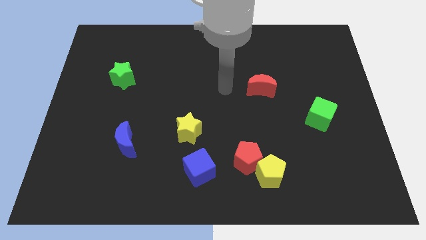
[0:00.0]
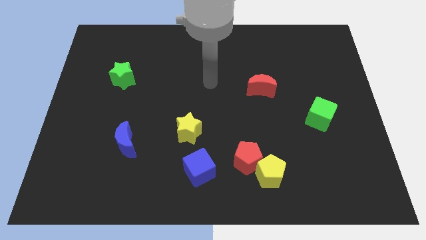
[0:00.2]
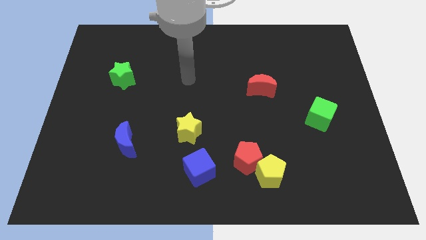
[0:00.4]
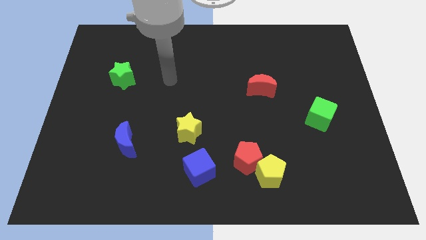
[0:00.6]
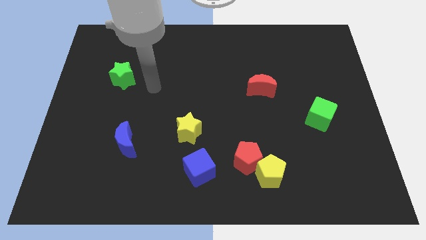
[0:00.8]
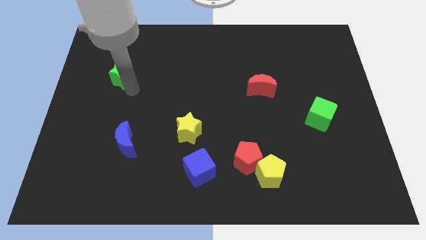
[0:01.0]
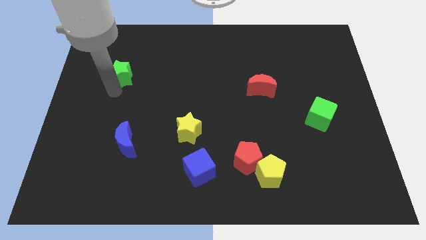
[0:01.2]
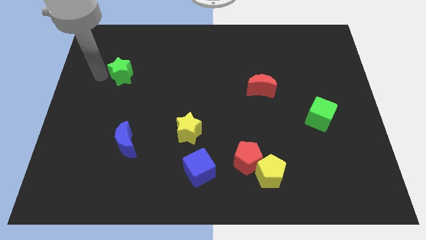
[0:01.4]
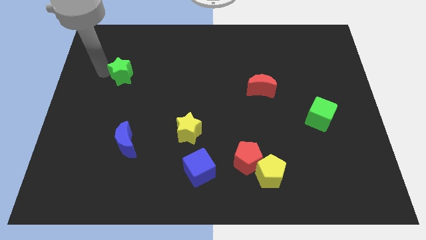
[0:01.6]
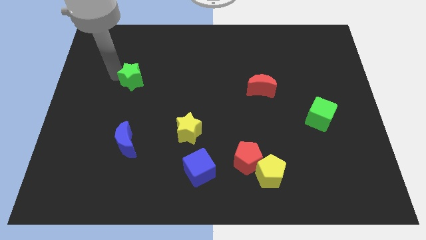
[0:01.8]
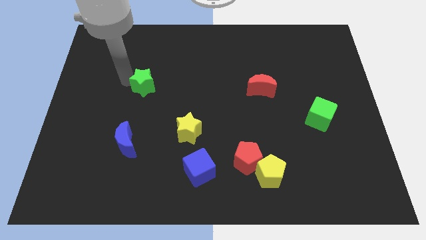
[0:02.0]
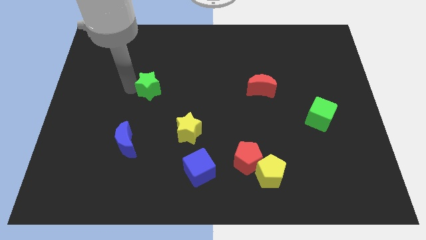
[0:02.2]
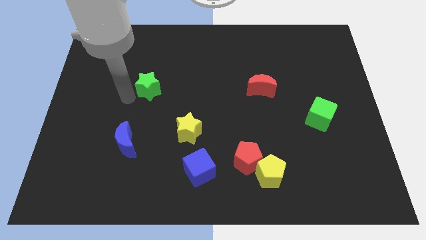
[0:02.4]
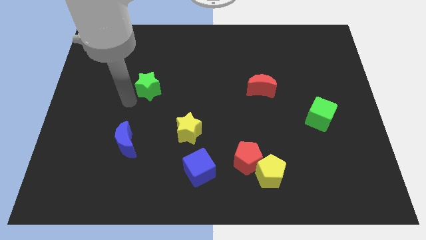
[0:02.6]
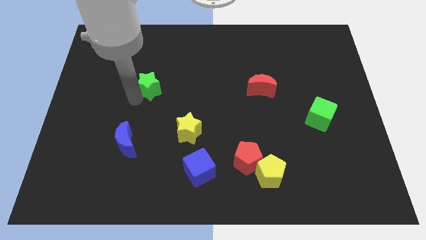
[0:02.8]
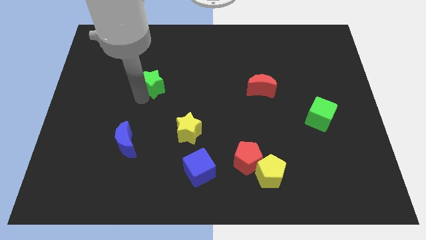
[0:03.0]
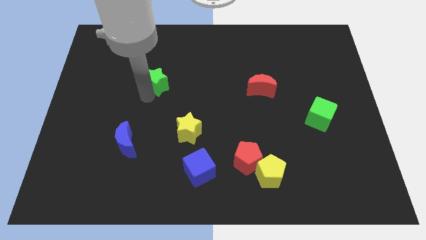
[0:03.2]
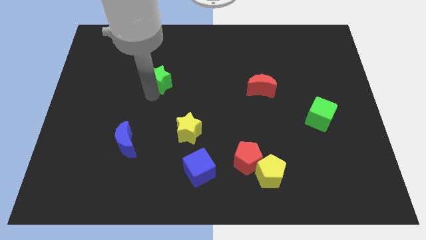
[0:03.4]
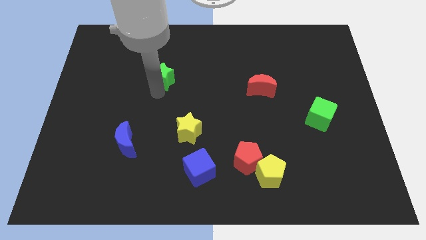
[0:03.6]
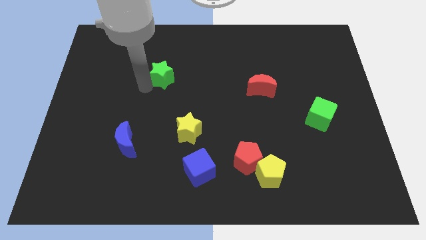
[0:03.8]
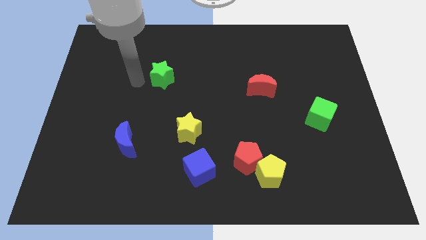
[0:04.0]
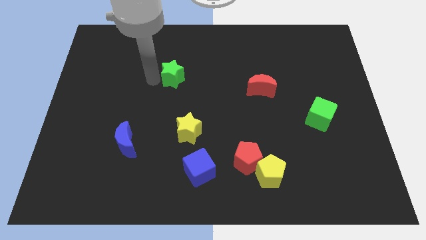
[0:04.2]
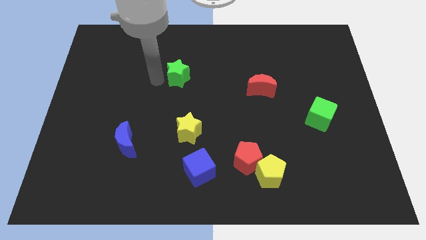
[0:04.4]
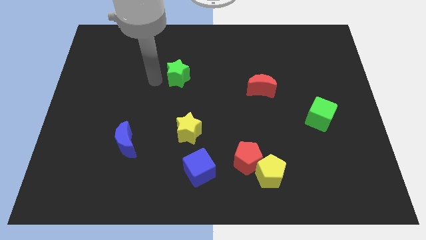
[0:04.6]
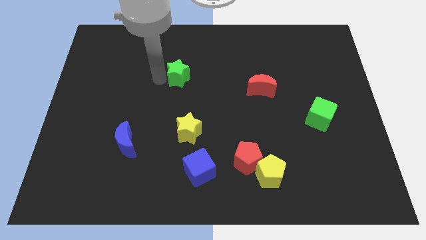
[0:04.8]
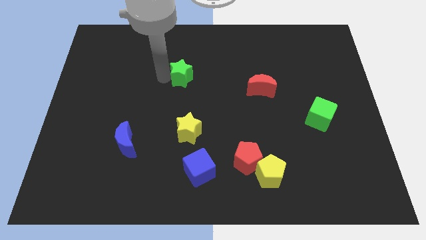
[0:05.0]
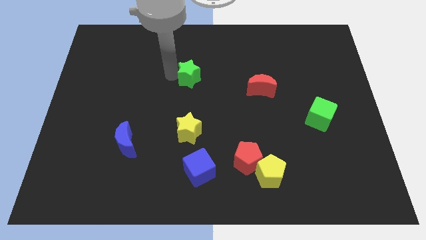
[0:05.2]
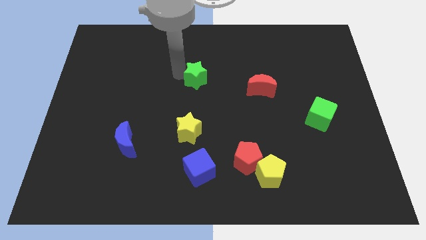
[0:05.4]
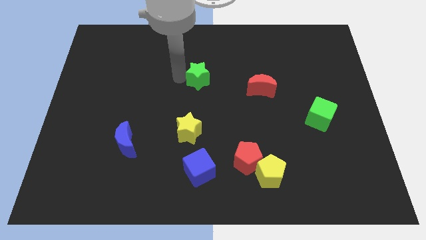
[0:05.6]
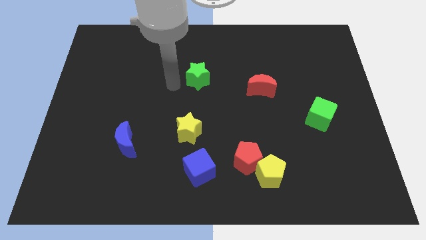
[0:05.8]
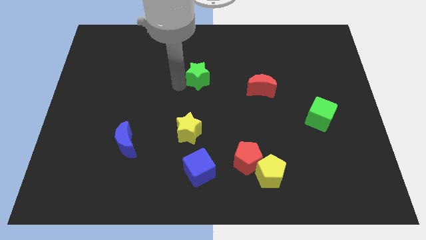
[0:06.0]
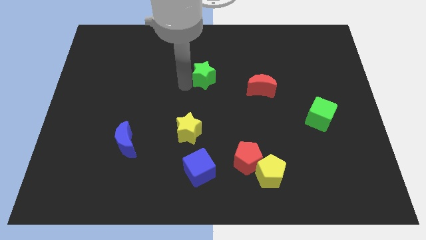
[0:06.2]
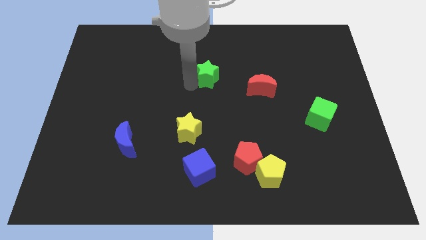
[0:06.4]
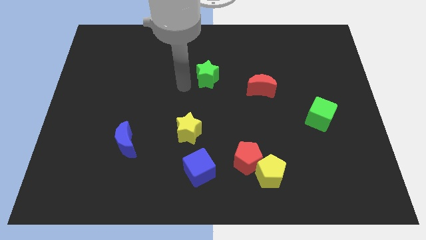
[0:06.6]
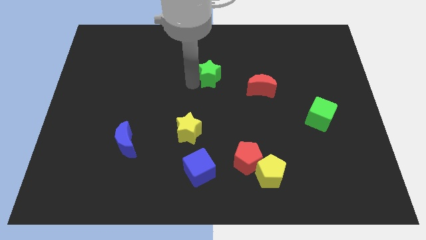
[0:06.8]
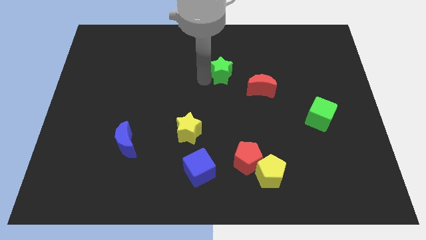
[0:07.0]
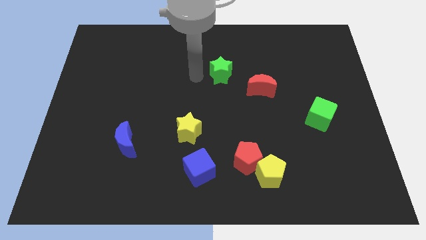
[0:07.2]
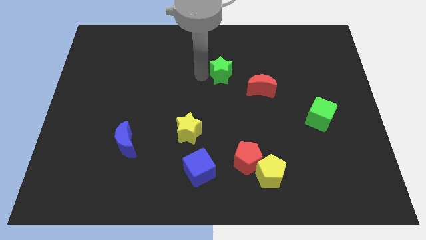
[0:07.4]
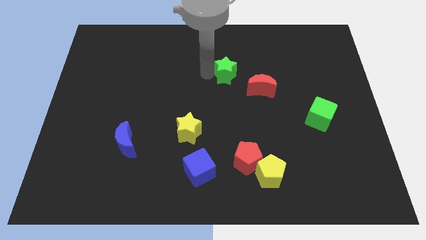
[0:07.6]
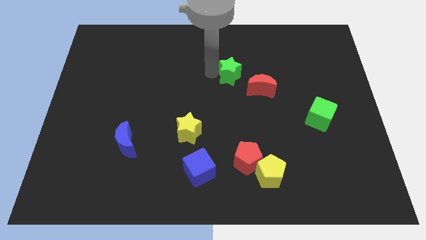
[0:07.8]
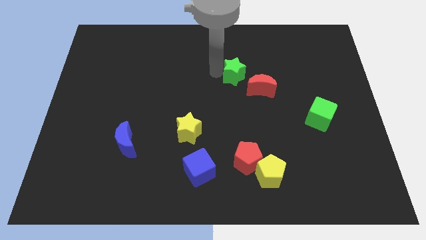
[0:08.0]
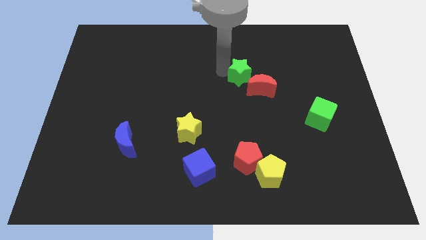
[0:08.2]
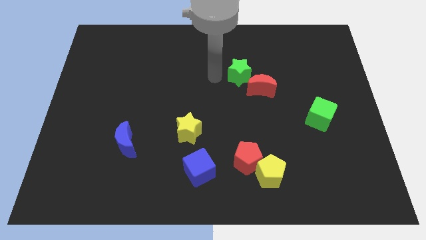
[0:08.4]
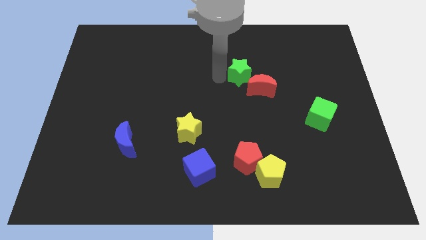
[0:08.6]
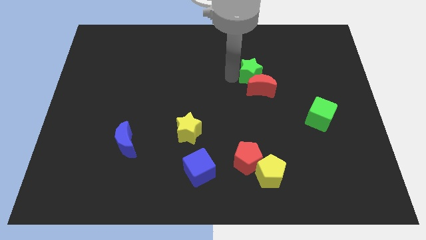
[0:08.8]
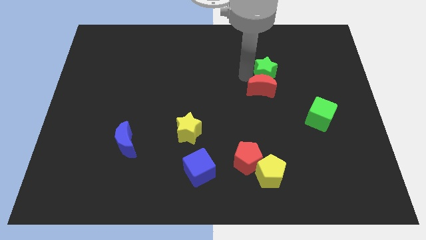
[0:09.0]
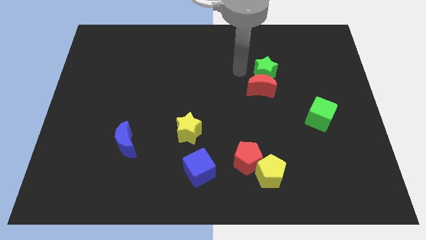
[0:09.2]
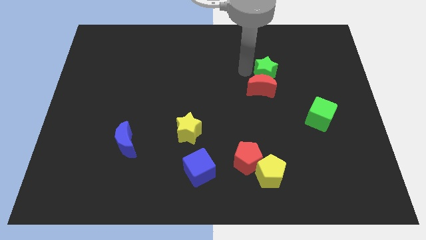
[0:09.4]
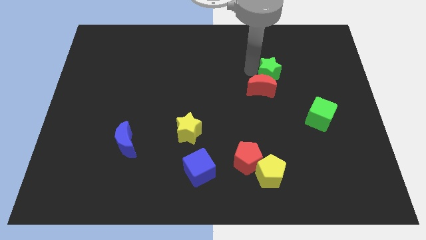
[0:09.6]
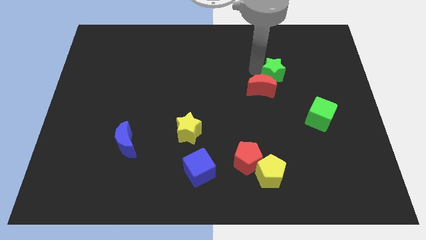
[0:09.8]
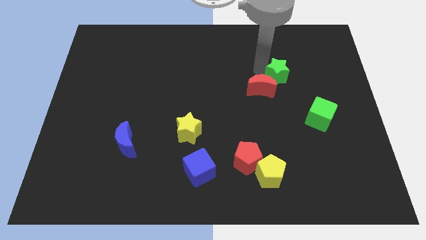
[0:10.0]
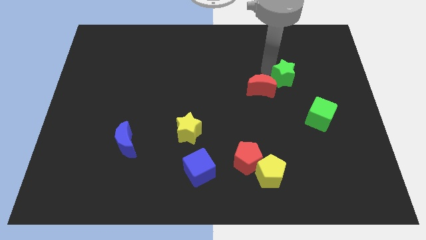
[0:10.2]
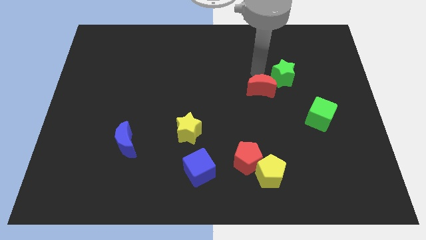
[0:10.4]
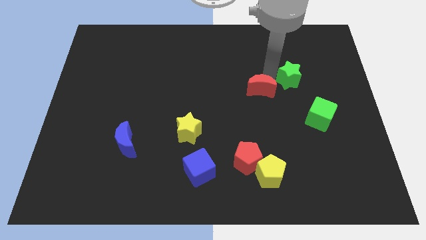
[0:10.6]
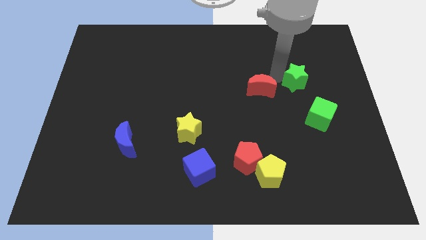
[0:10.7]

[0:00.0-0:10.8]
move the green star to the top side of the green cube

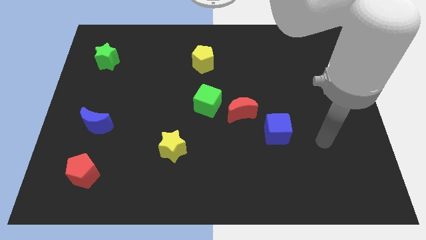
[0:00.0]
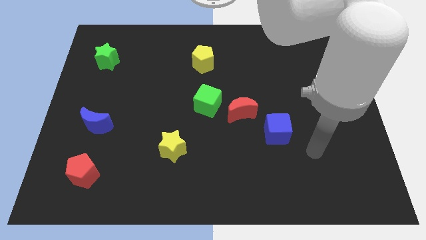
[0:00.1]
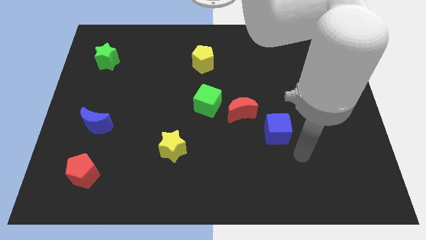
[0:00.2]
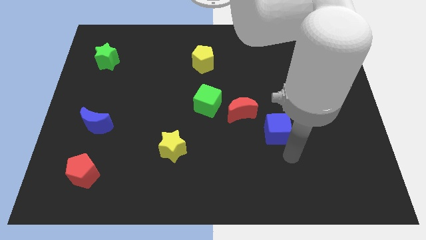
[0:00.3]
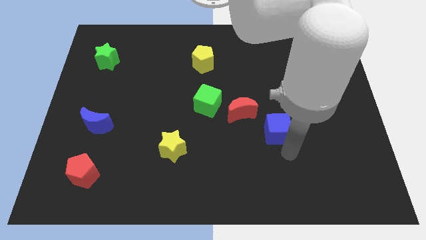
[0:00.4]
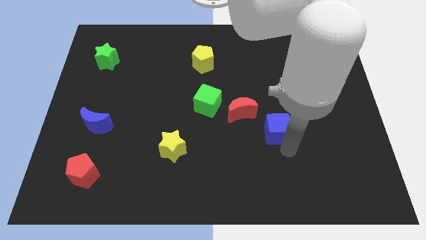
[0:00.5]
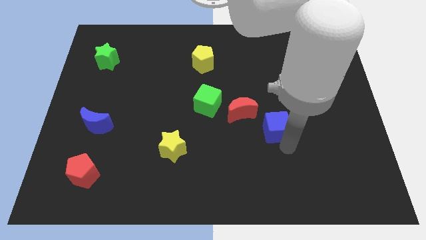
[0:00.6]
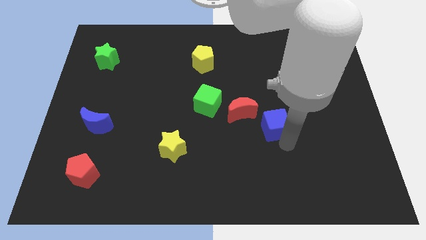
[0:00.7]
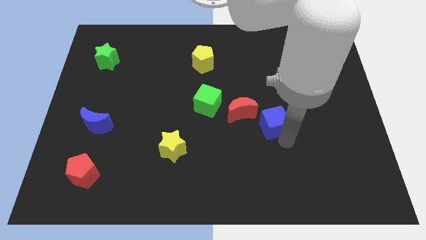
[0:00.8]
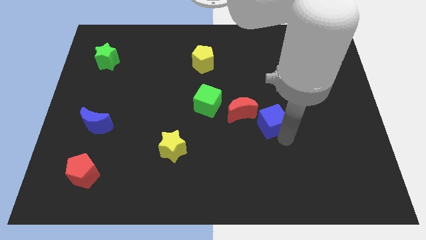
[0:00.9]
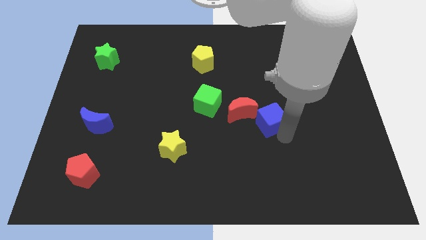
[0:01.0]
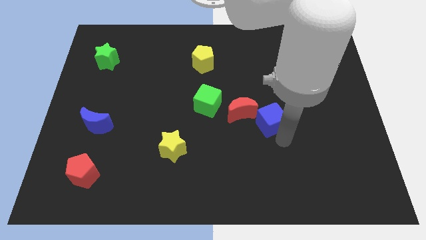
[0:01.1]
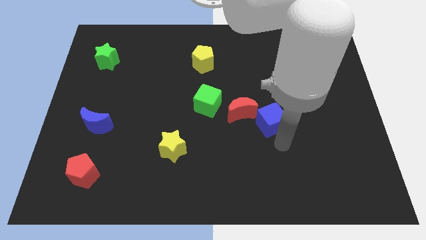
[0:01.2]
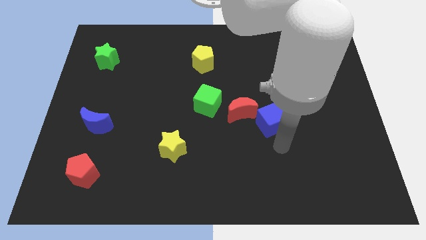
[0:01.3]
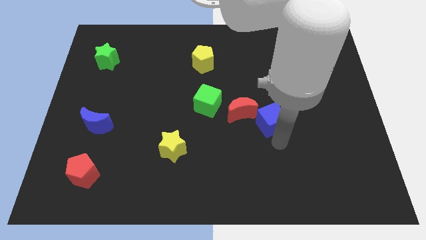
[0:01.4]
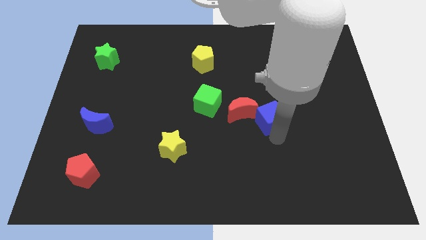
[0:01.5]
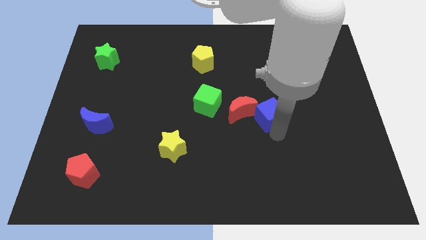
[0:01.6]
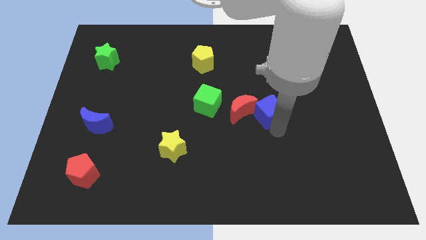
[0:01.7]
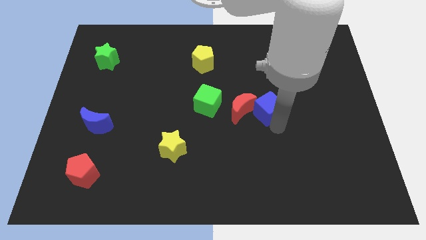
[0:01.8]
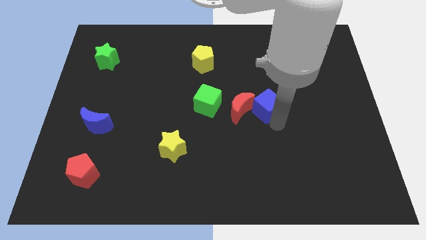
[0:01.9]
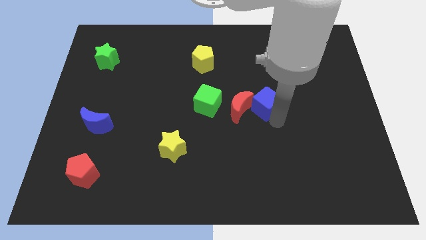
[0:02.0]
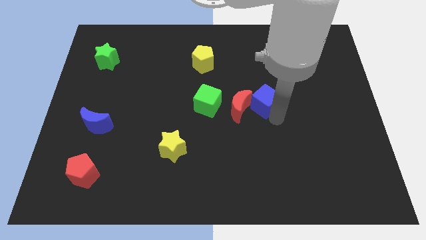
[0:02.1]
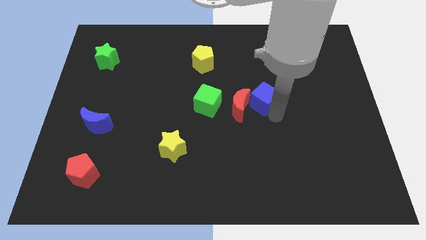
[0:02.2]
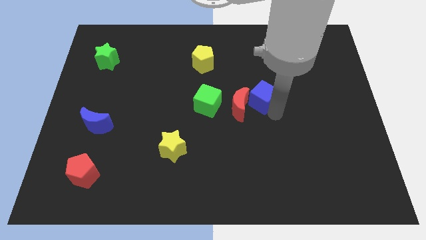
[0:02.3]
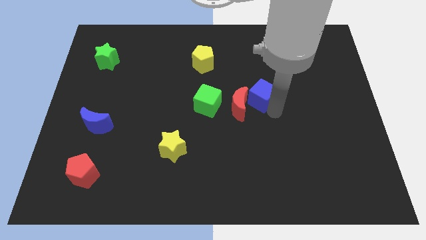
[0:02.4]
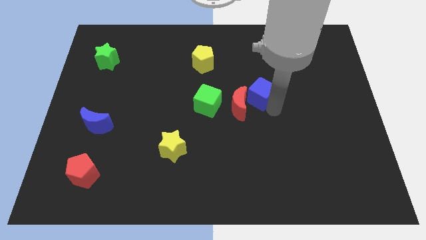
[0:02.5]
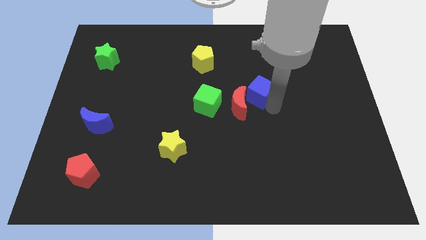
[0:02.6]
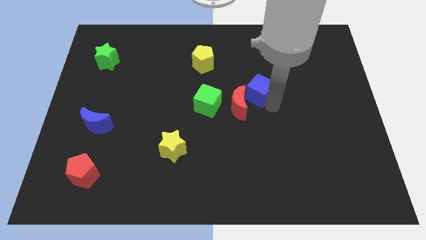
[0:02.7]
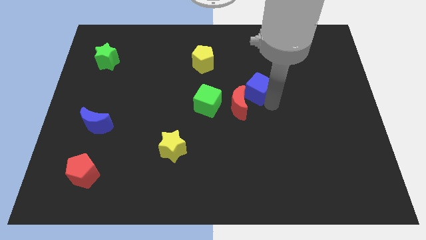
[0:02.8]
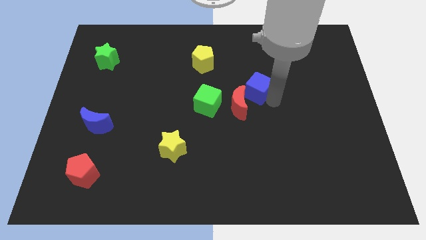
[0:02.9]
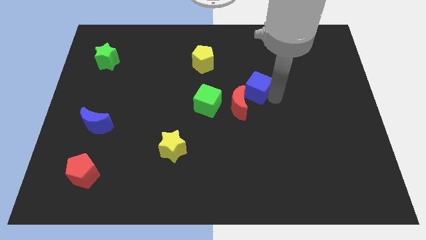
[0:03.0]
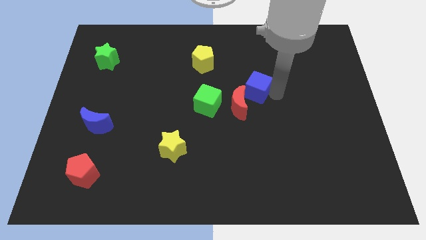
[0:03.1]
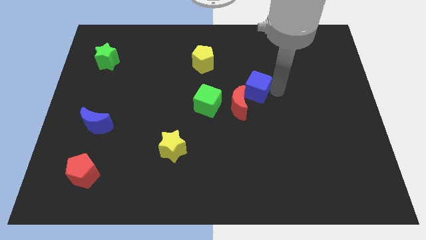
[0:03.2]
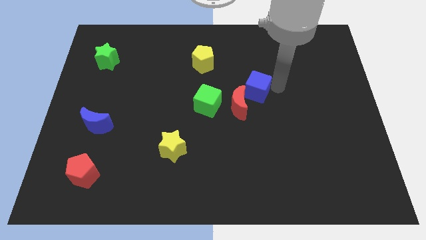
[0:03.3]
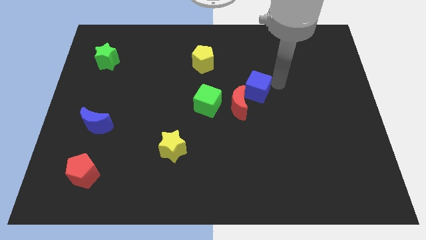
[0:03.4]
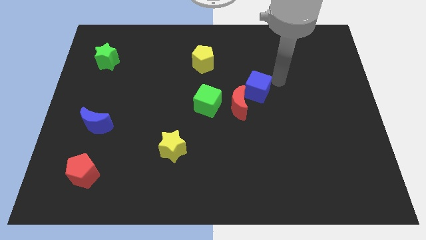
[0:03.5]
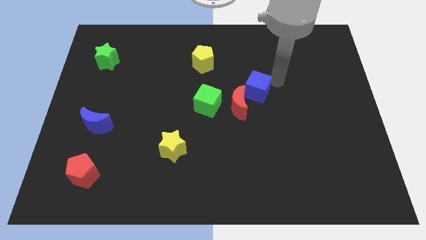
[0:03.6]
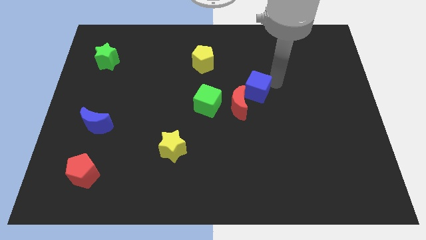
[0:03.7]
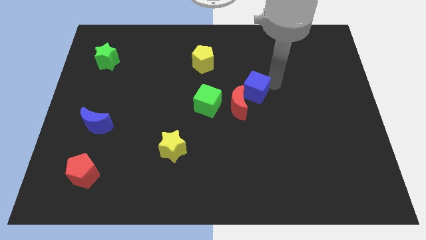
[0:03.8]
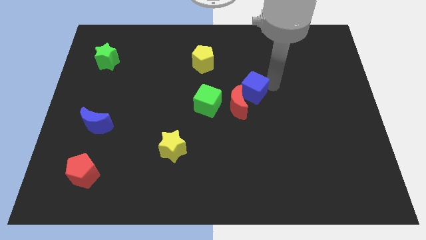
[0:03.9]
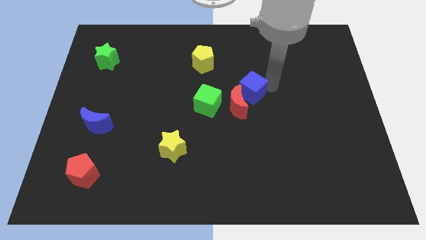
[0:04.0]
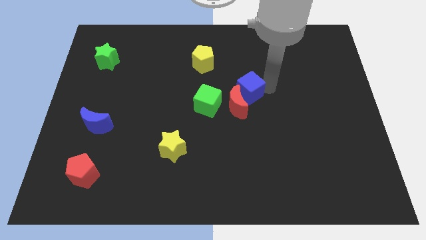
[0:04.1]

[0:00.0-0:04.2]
move the blue cube diagonally up and to the right of the green cube
